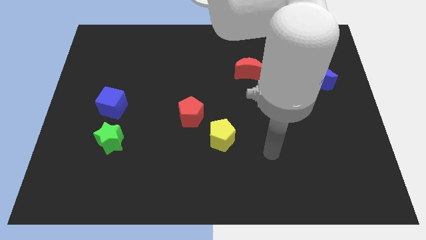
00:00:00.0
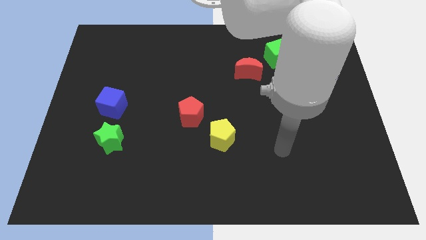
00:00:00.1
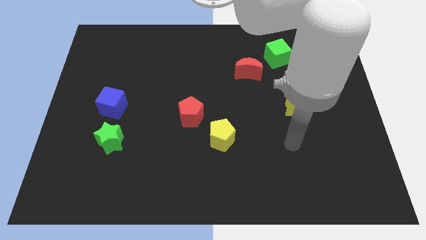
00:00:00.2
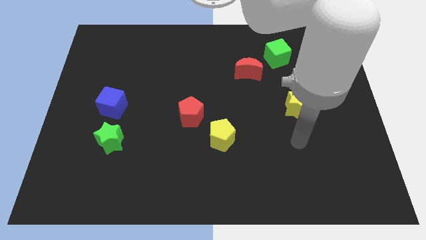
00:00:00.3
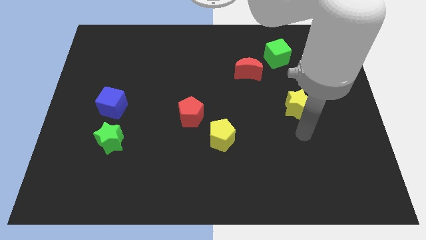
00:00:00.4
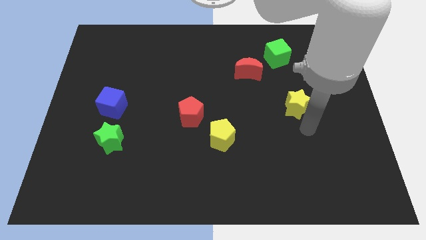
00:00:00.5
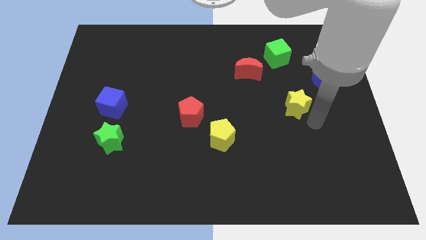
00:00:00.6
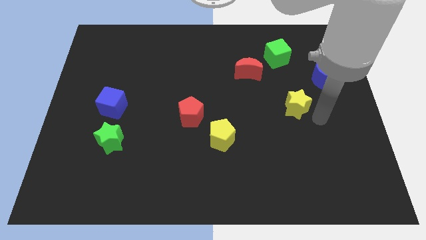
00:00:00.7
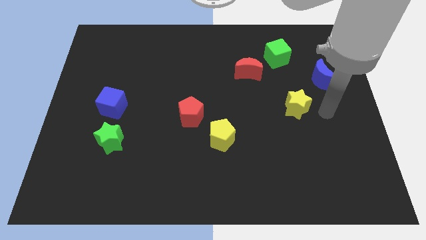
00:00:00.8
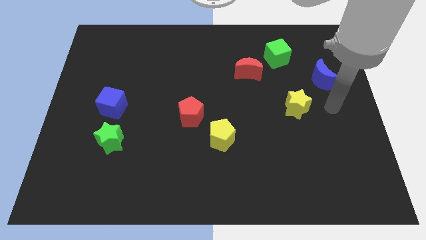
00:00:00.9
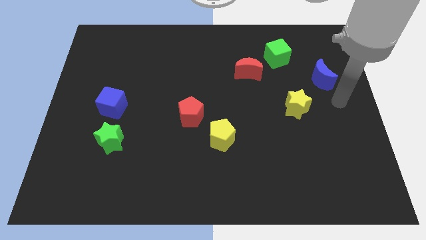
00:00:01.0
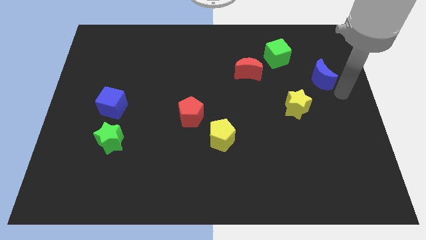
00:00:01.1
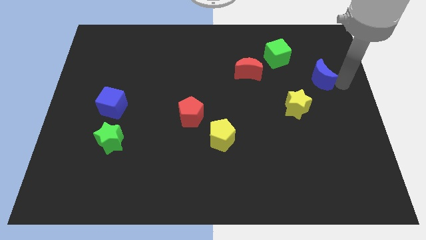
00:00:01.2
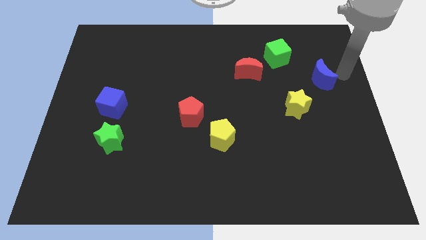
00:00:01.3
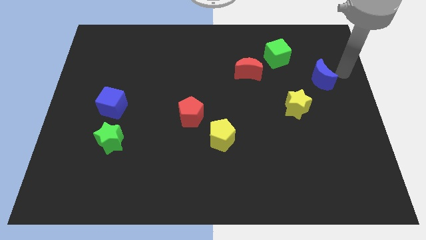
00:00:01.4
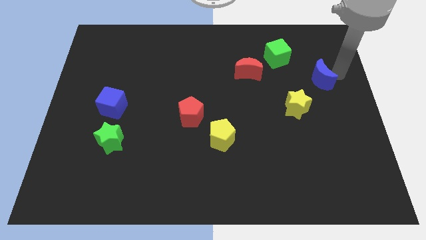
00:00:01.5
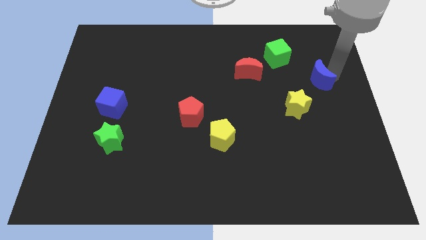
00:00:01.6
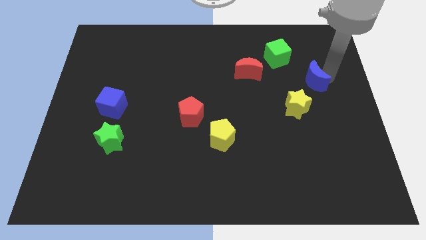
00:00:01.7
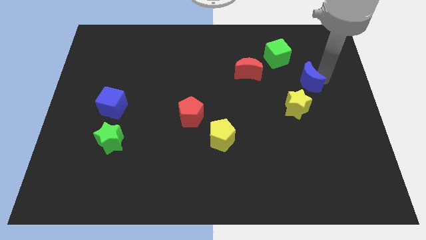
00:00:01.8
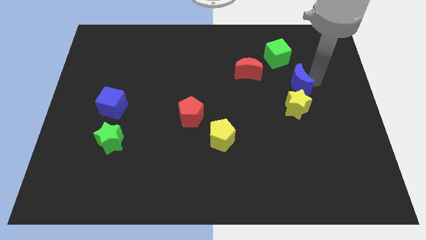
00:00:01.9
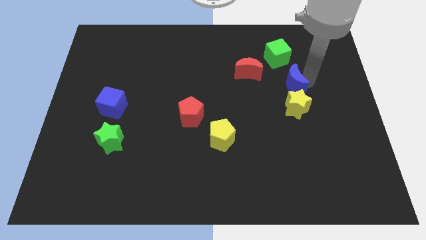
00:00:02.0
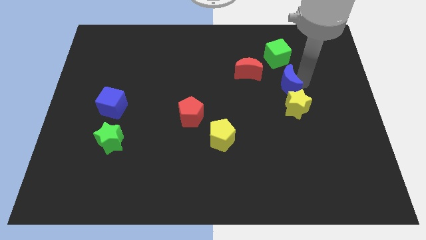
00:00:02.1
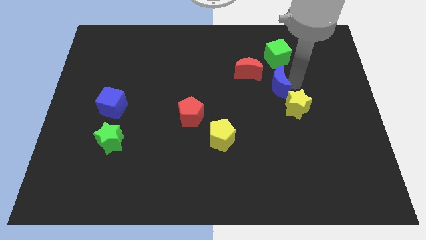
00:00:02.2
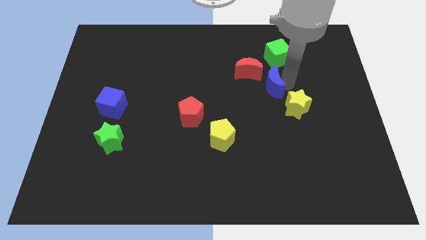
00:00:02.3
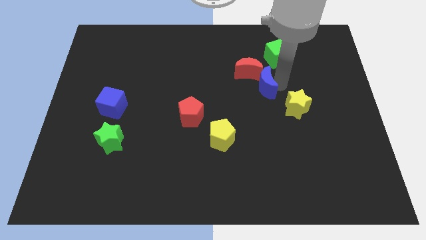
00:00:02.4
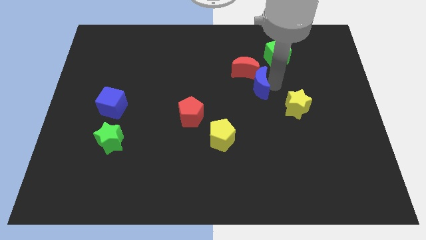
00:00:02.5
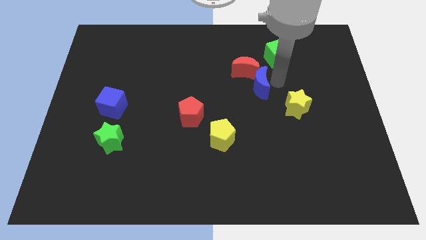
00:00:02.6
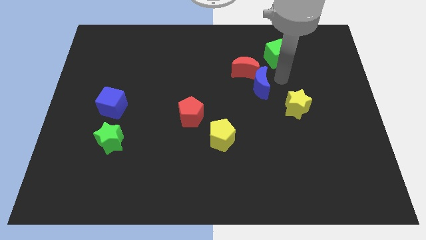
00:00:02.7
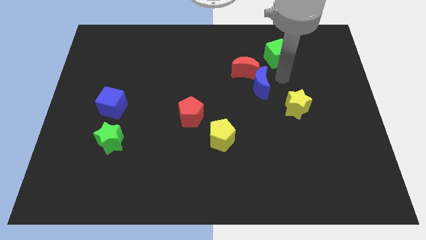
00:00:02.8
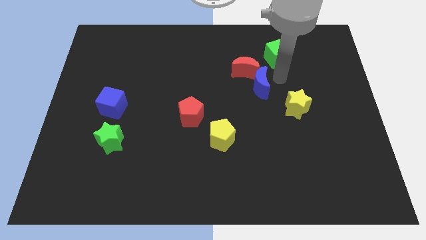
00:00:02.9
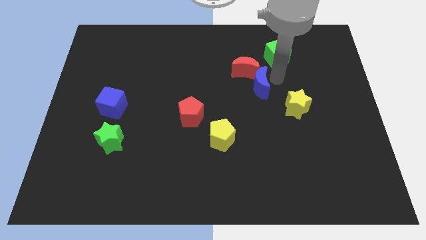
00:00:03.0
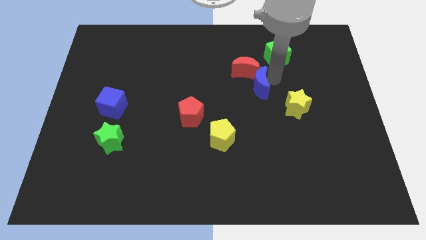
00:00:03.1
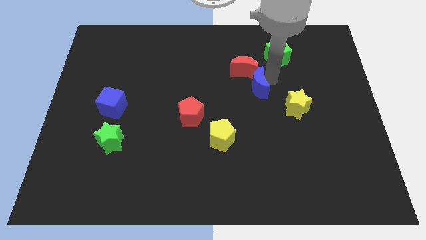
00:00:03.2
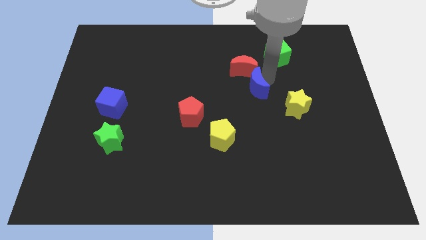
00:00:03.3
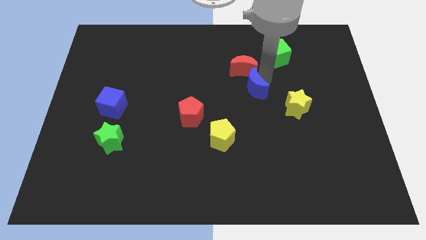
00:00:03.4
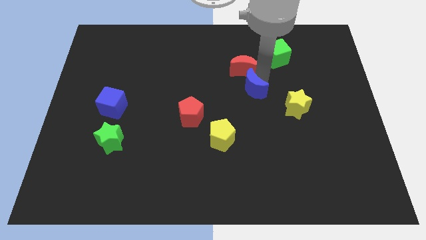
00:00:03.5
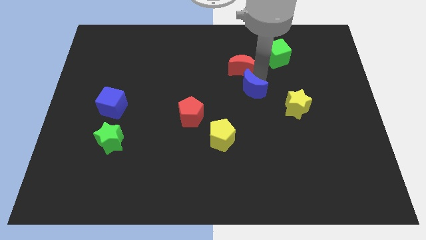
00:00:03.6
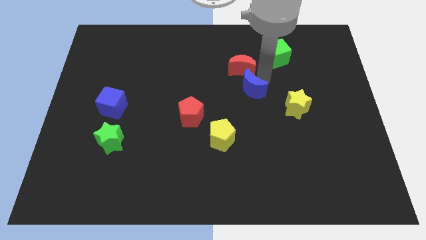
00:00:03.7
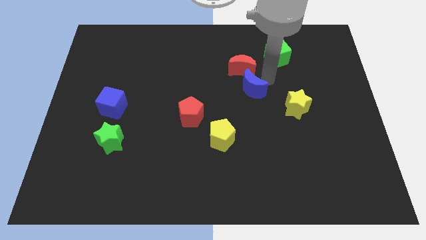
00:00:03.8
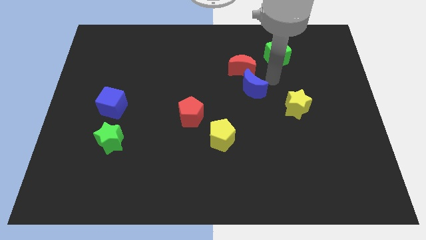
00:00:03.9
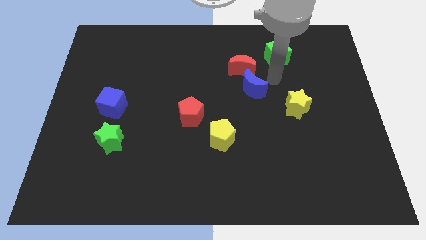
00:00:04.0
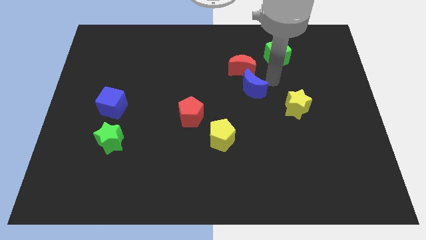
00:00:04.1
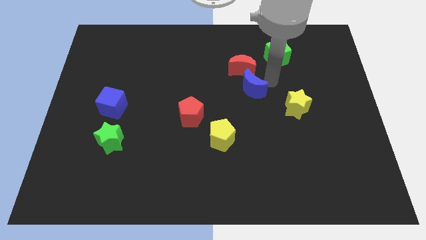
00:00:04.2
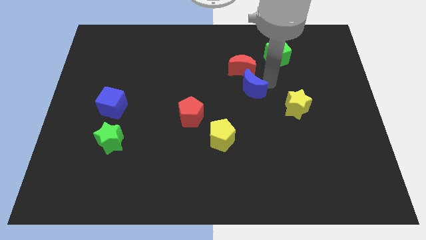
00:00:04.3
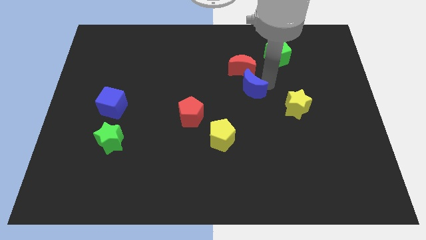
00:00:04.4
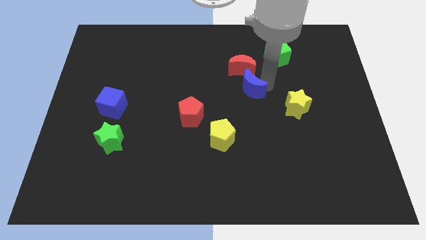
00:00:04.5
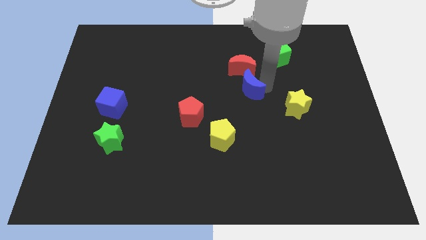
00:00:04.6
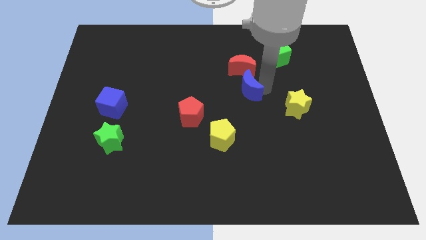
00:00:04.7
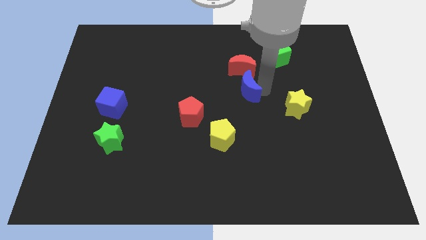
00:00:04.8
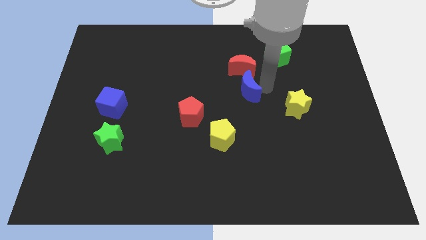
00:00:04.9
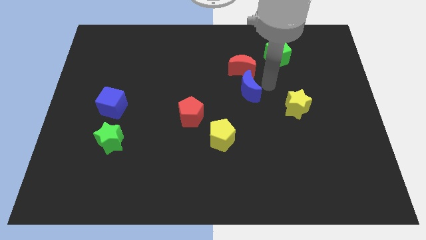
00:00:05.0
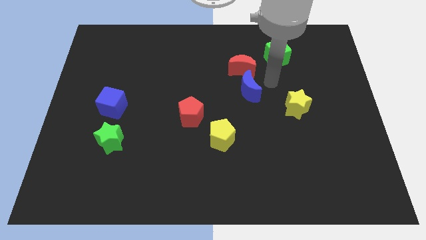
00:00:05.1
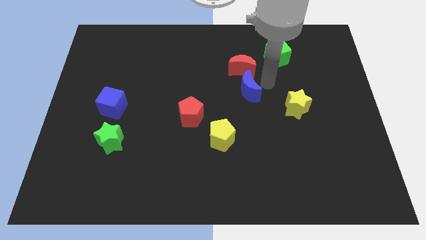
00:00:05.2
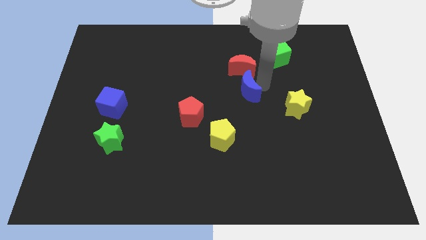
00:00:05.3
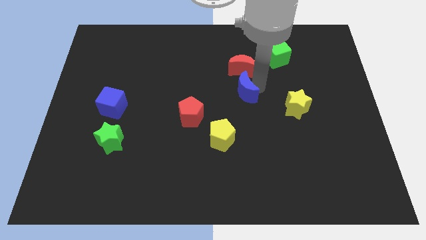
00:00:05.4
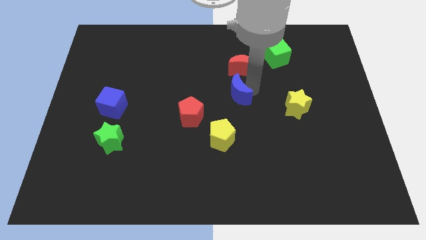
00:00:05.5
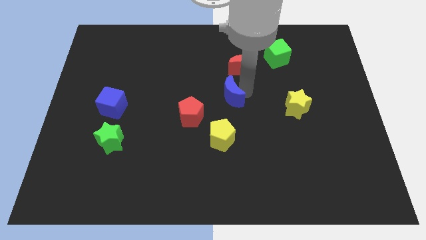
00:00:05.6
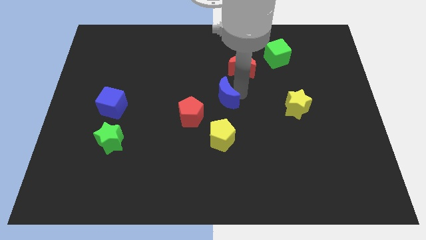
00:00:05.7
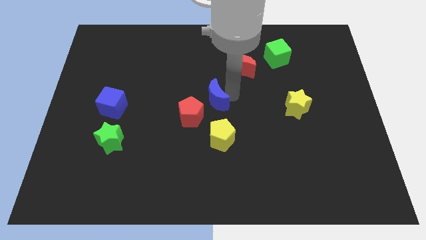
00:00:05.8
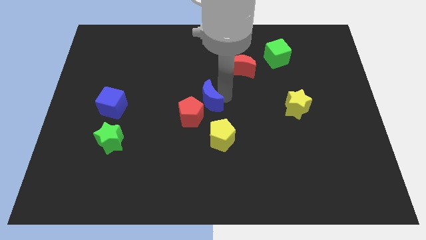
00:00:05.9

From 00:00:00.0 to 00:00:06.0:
move the blue moon towards the red pentagon
